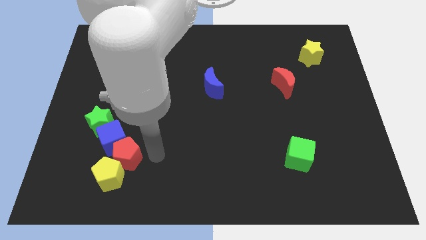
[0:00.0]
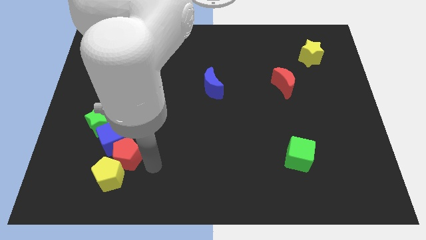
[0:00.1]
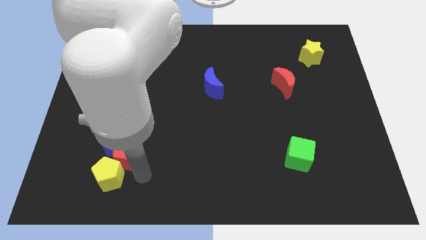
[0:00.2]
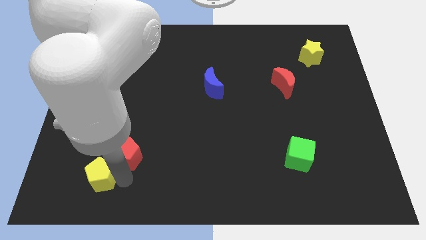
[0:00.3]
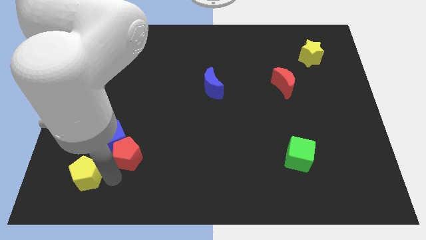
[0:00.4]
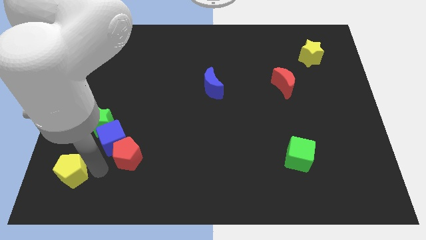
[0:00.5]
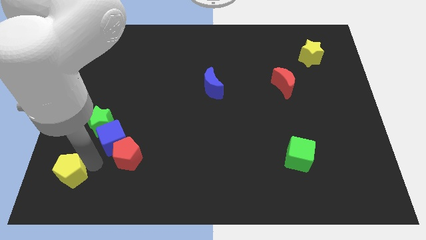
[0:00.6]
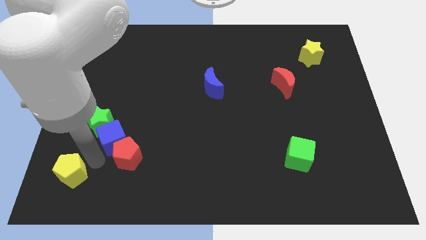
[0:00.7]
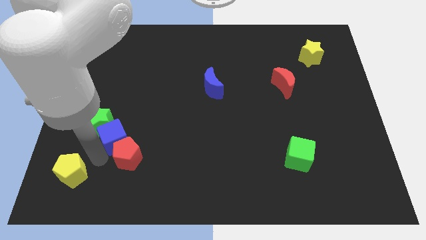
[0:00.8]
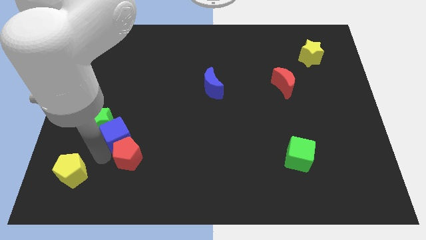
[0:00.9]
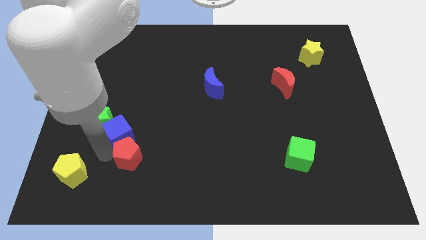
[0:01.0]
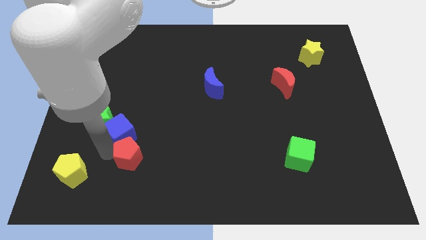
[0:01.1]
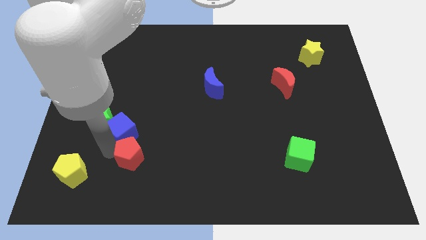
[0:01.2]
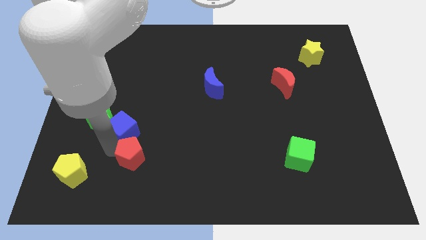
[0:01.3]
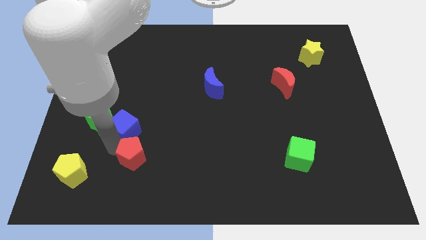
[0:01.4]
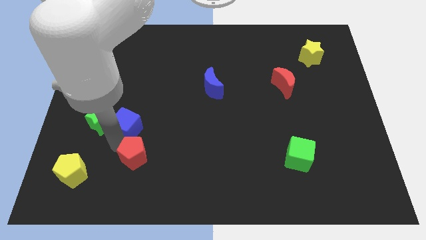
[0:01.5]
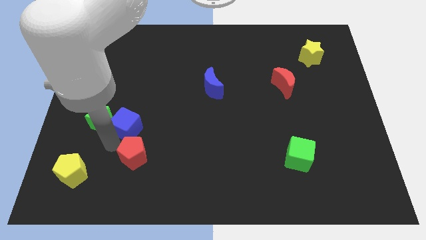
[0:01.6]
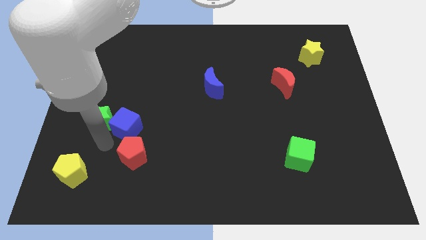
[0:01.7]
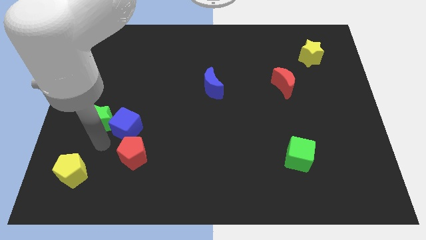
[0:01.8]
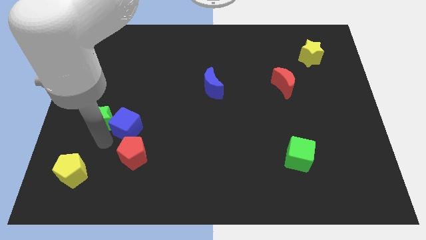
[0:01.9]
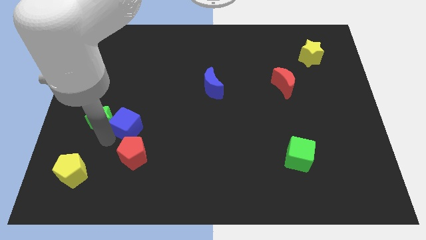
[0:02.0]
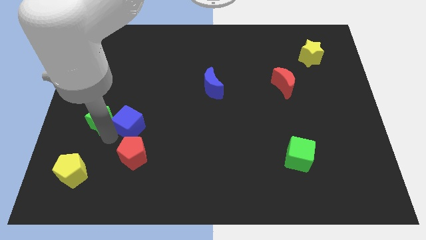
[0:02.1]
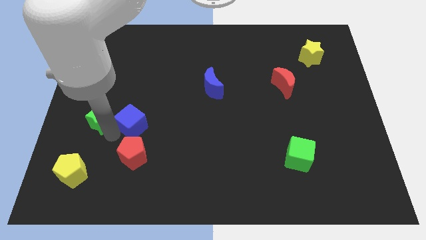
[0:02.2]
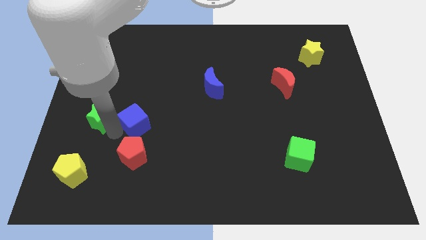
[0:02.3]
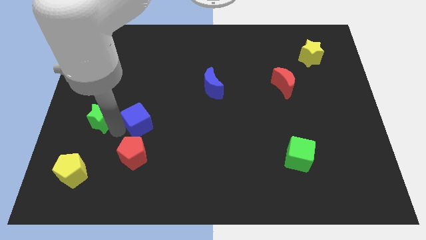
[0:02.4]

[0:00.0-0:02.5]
slide the blue cube upwards and to the right a bit

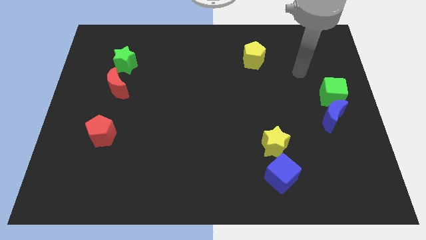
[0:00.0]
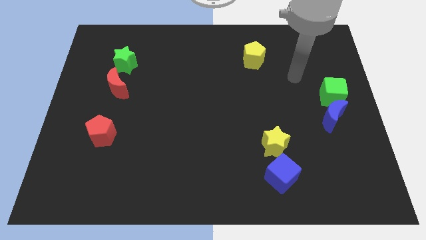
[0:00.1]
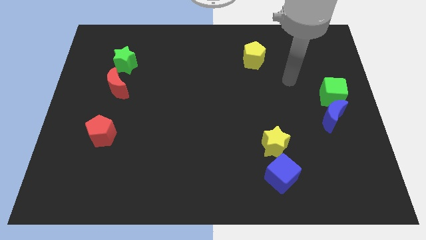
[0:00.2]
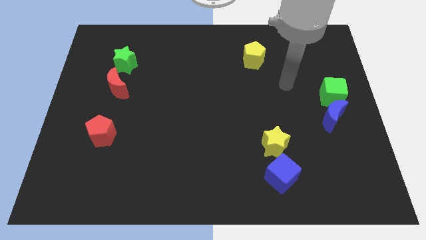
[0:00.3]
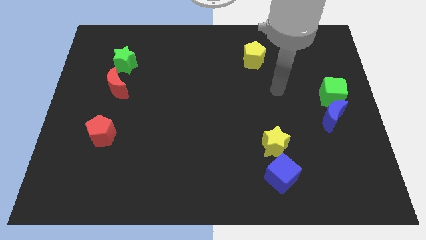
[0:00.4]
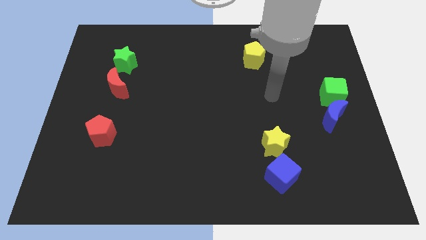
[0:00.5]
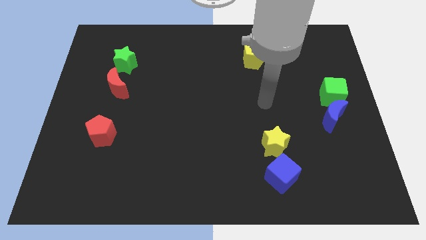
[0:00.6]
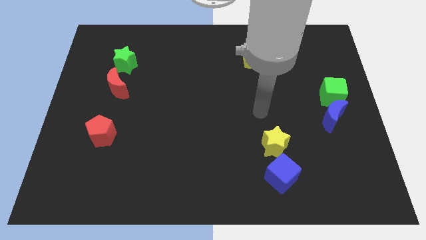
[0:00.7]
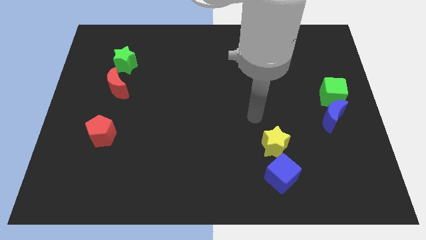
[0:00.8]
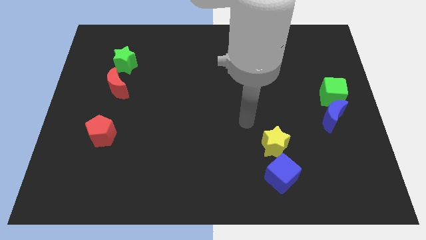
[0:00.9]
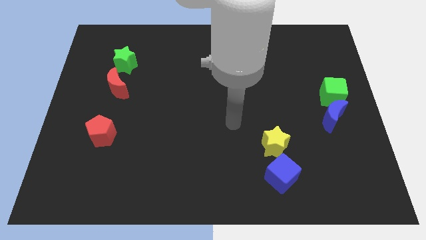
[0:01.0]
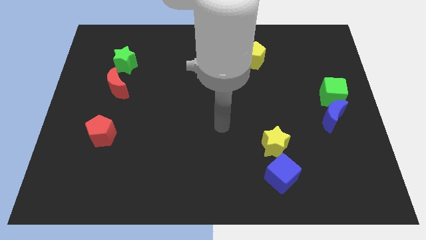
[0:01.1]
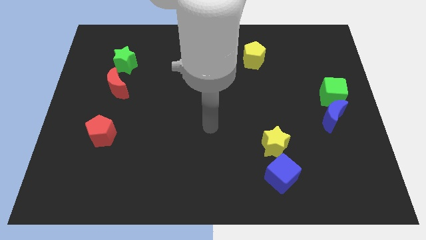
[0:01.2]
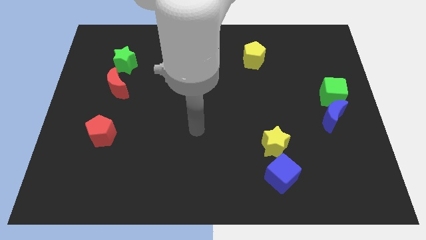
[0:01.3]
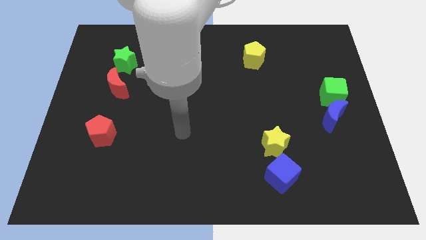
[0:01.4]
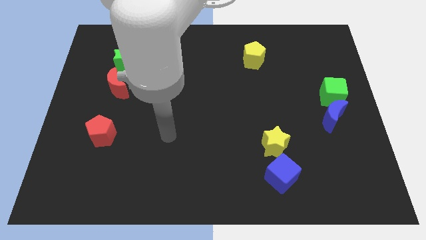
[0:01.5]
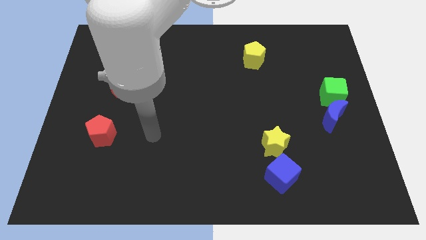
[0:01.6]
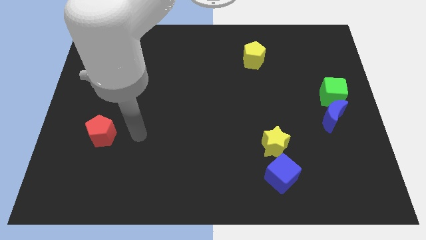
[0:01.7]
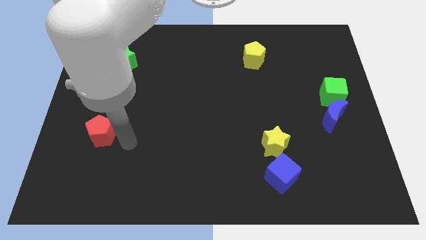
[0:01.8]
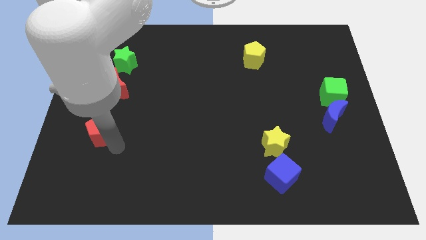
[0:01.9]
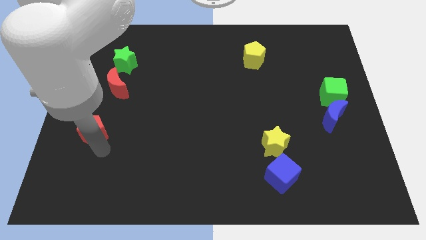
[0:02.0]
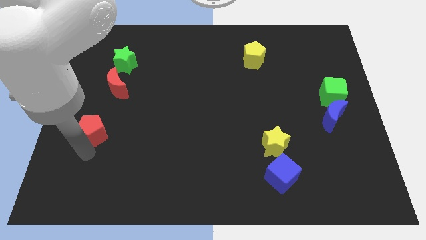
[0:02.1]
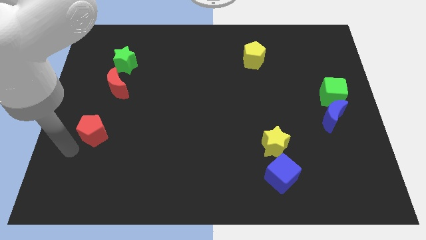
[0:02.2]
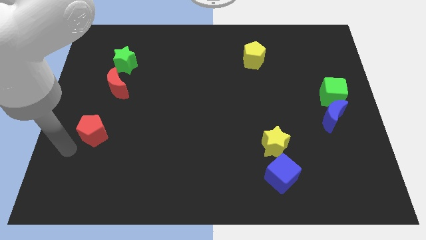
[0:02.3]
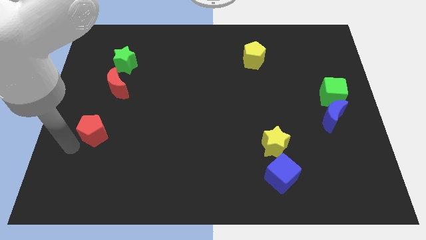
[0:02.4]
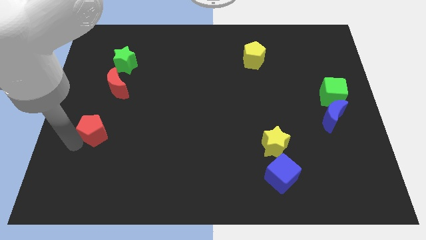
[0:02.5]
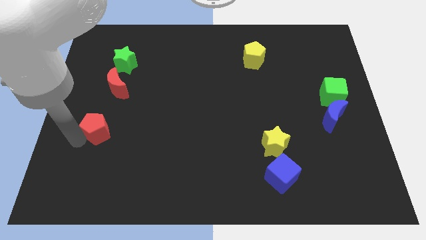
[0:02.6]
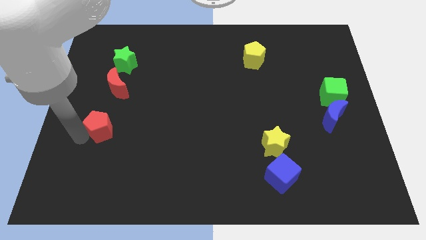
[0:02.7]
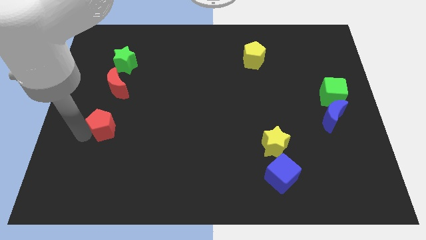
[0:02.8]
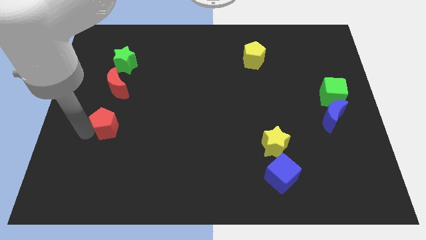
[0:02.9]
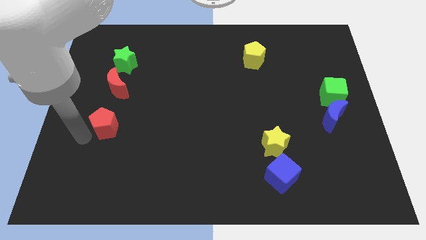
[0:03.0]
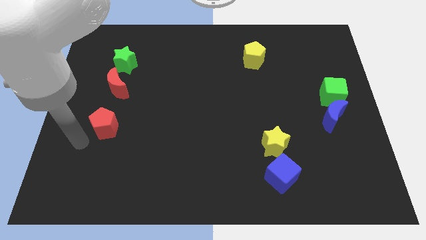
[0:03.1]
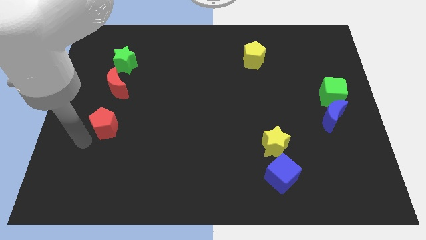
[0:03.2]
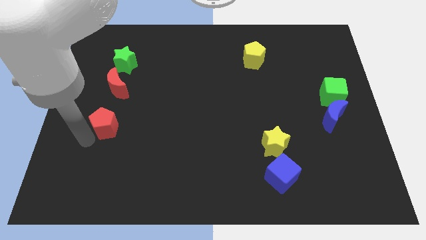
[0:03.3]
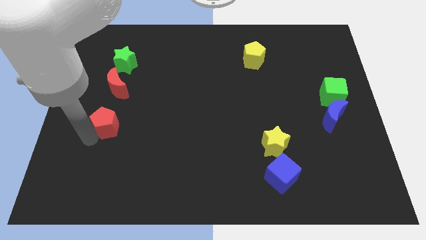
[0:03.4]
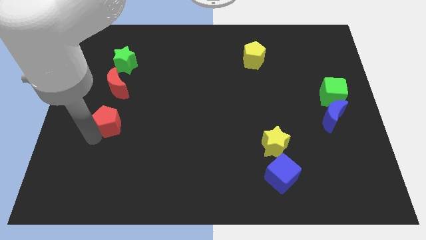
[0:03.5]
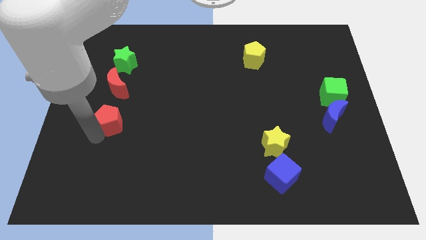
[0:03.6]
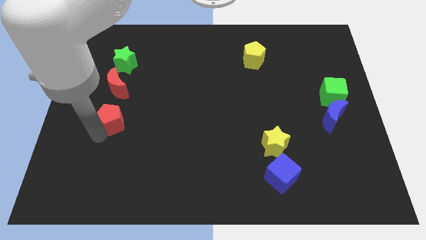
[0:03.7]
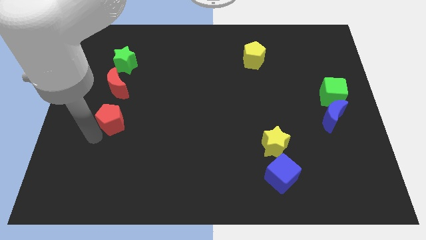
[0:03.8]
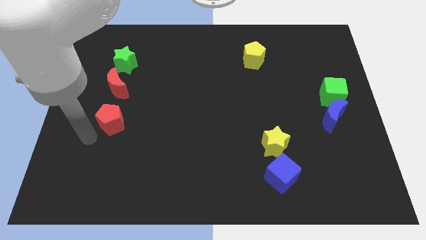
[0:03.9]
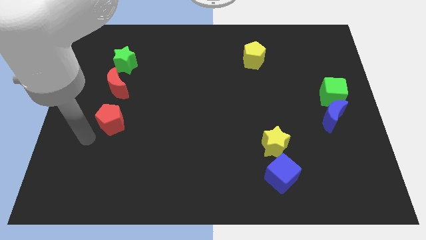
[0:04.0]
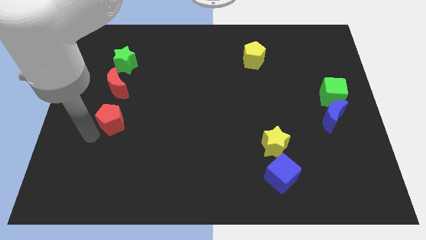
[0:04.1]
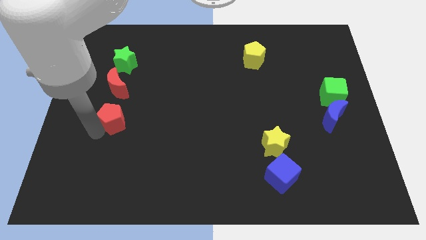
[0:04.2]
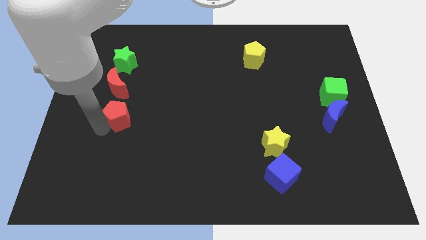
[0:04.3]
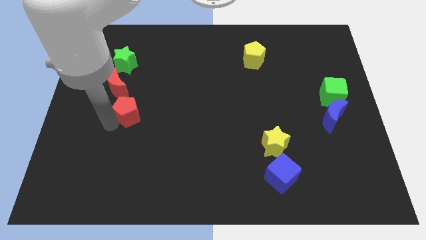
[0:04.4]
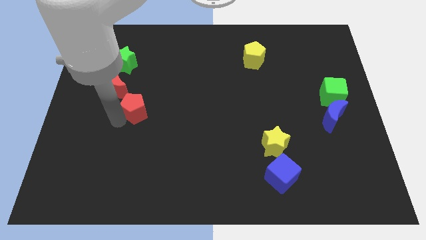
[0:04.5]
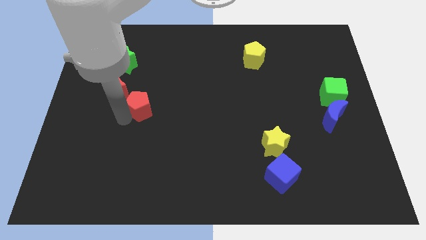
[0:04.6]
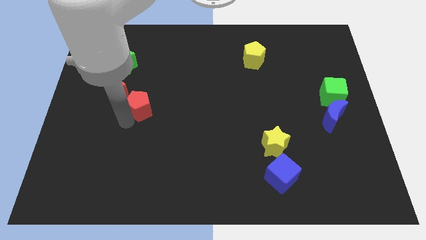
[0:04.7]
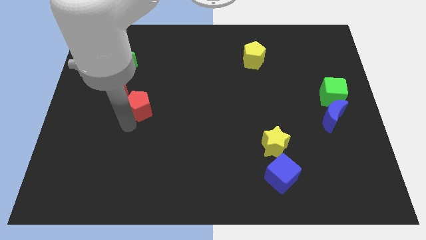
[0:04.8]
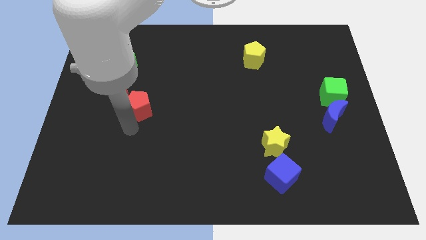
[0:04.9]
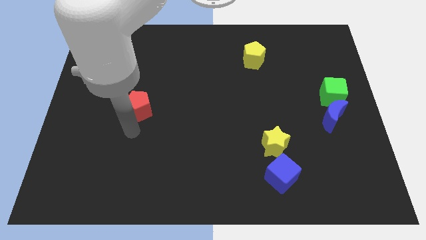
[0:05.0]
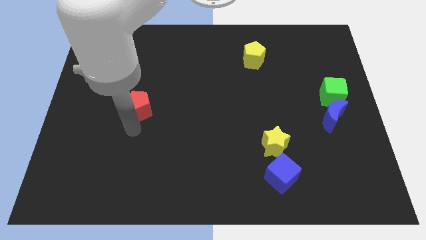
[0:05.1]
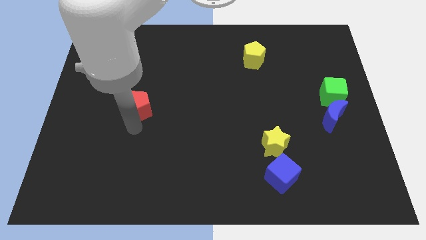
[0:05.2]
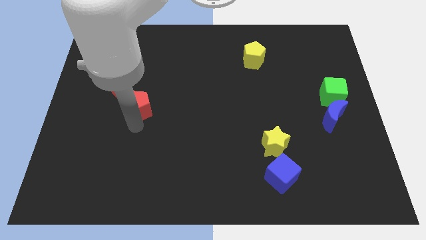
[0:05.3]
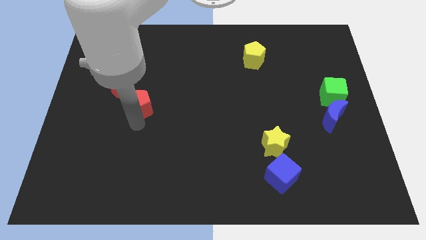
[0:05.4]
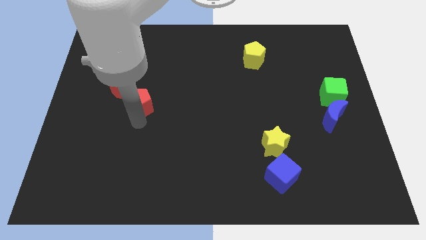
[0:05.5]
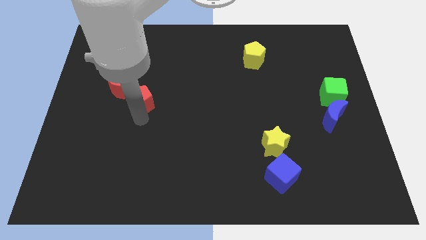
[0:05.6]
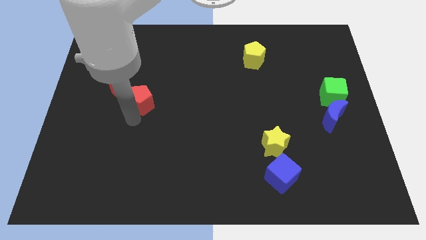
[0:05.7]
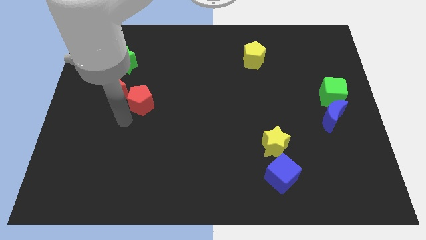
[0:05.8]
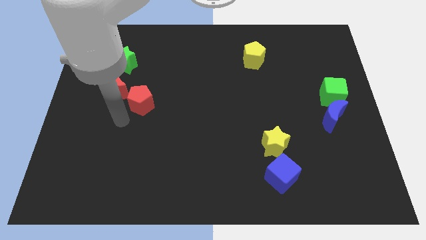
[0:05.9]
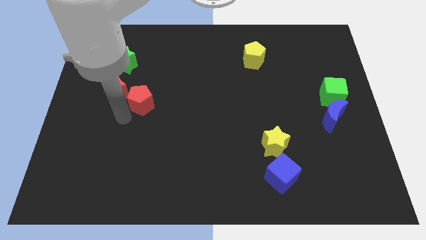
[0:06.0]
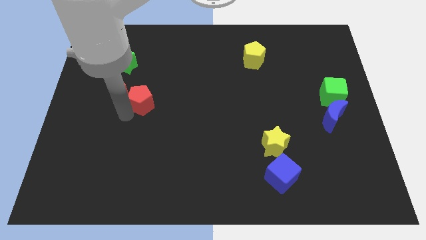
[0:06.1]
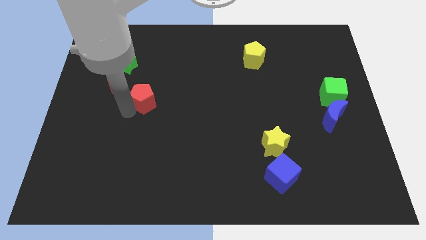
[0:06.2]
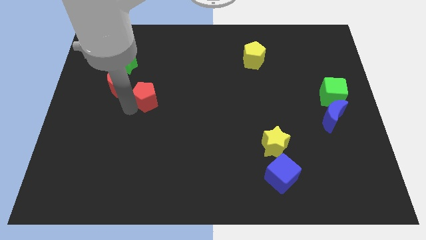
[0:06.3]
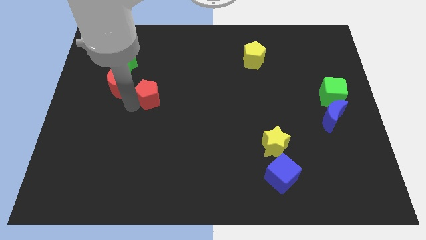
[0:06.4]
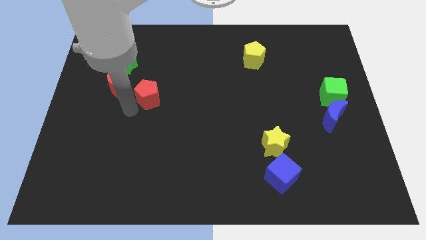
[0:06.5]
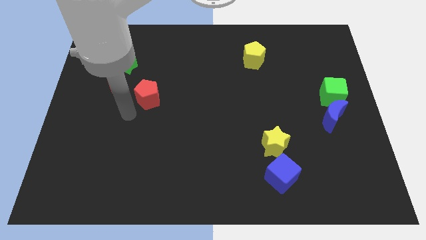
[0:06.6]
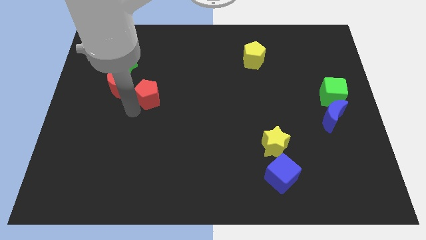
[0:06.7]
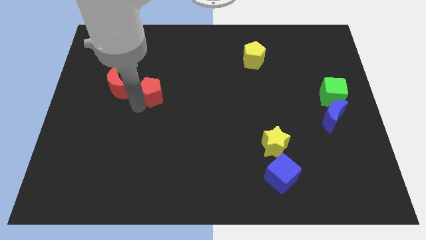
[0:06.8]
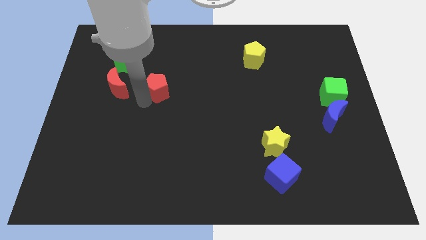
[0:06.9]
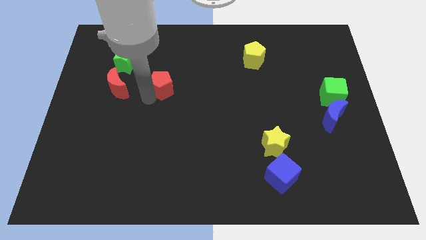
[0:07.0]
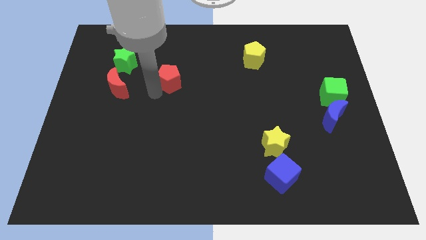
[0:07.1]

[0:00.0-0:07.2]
push the red pentagon upwards and to the right diagonally
